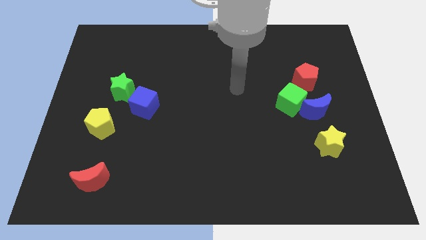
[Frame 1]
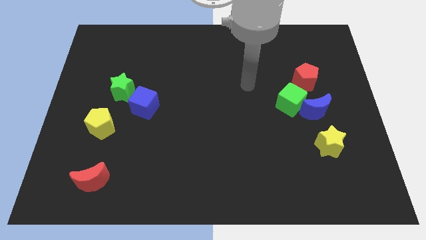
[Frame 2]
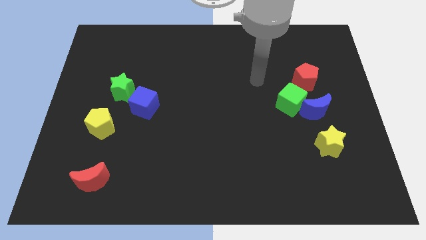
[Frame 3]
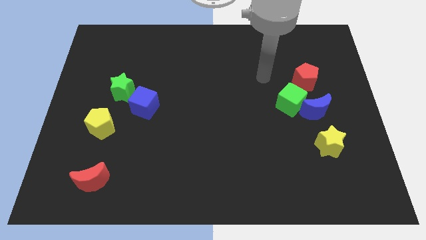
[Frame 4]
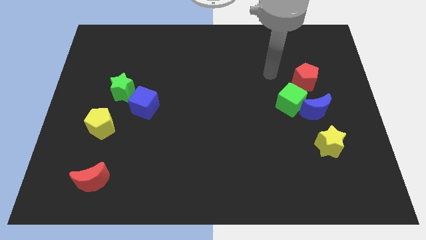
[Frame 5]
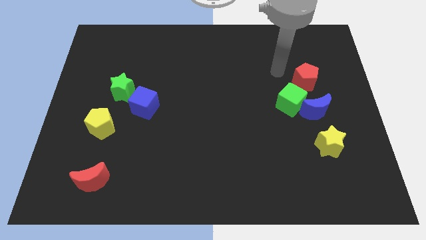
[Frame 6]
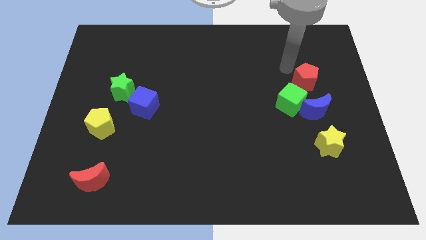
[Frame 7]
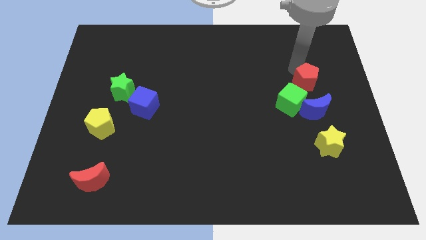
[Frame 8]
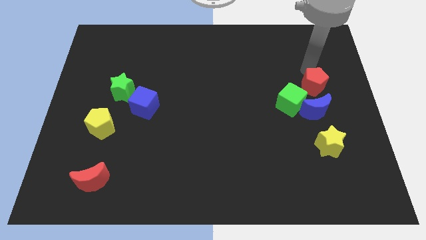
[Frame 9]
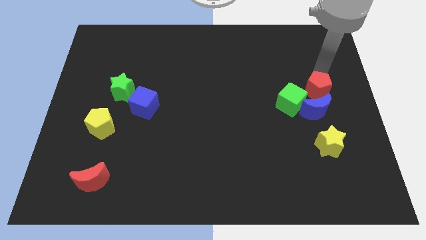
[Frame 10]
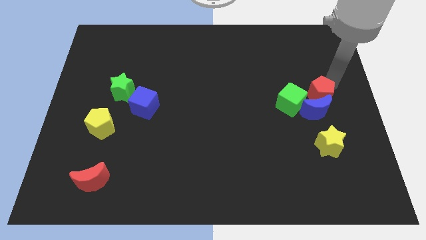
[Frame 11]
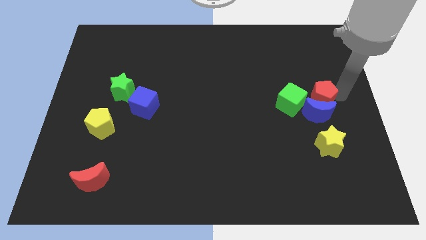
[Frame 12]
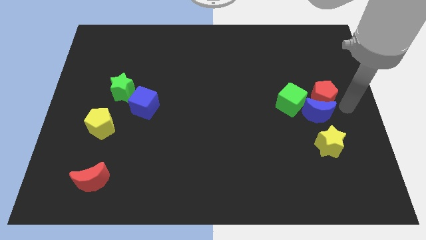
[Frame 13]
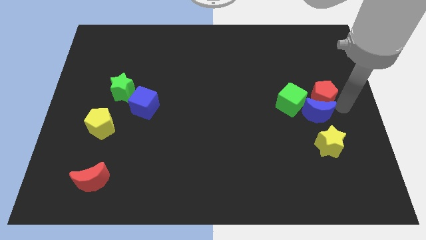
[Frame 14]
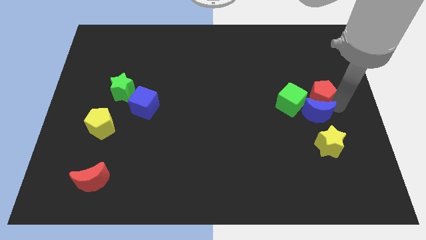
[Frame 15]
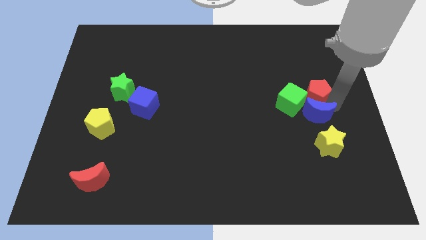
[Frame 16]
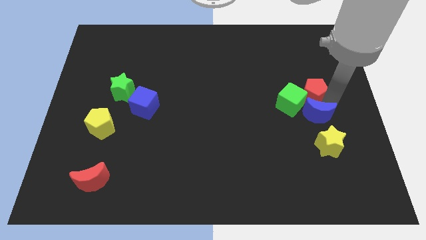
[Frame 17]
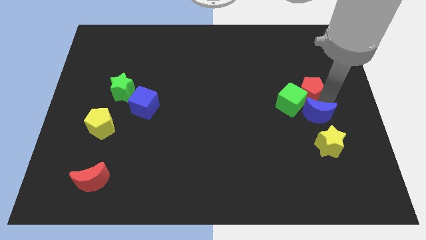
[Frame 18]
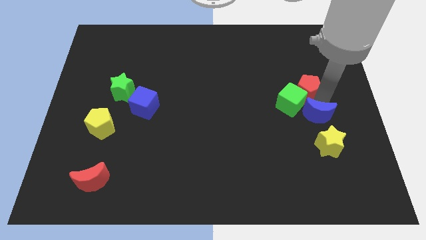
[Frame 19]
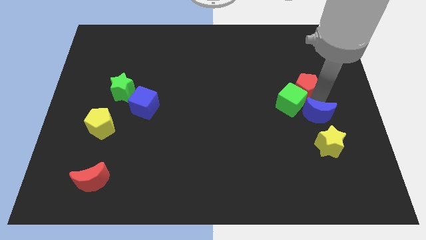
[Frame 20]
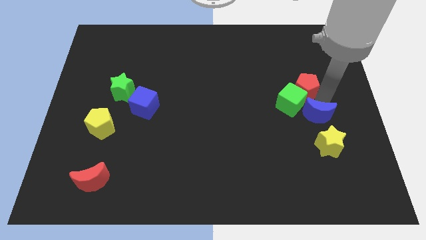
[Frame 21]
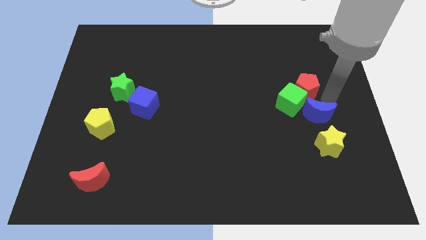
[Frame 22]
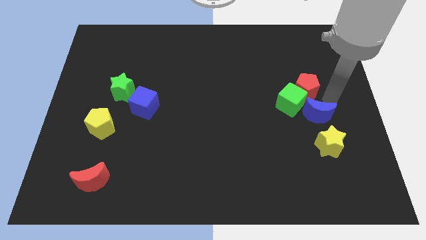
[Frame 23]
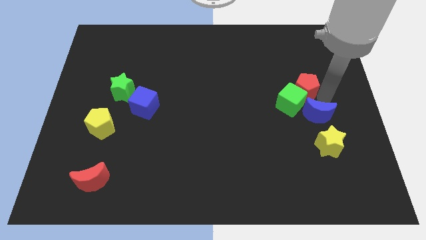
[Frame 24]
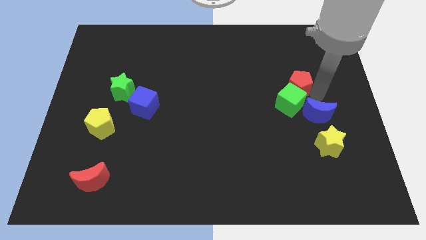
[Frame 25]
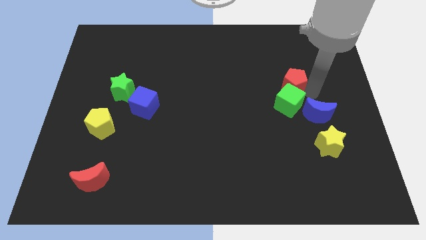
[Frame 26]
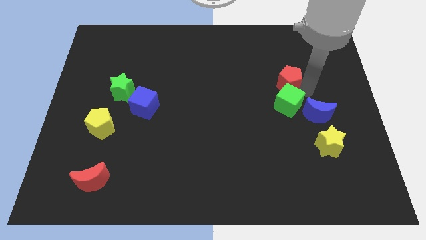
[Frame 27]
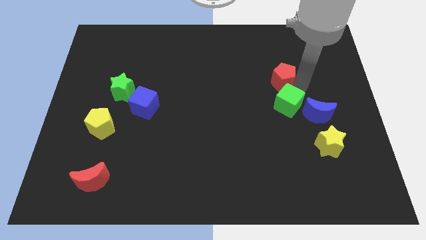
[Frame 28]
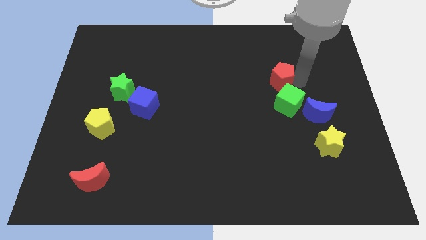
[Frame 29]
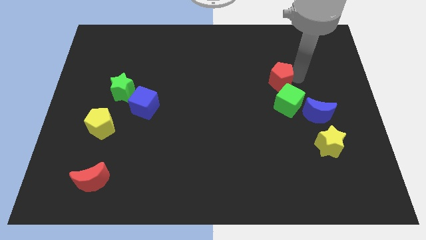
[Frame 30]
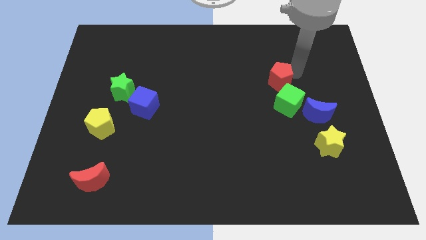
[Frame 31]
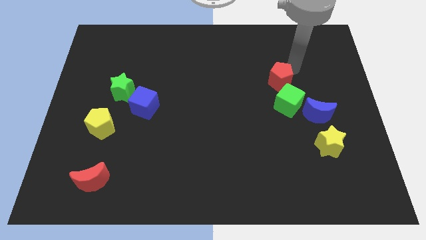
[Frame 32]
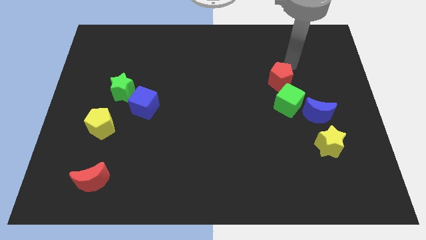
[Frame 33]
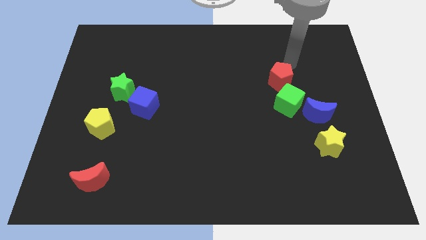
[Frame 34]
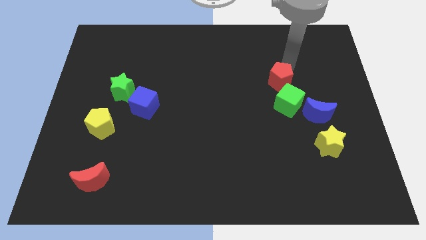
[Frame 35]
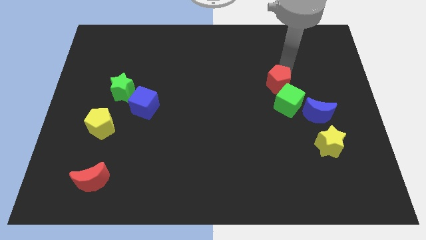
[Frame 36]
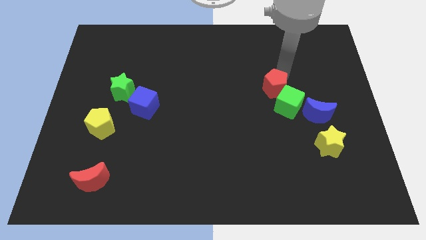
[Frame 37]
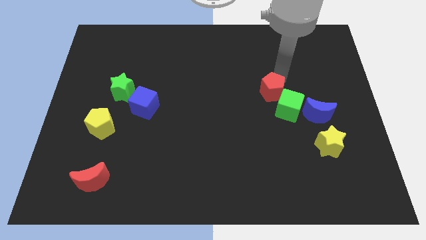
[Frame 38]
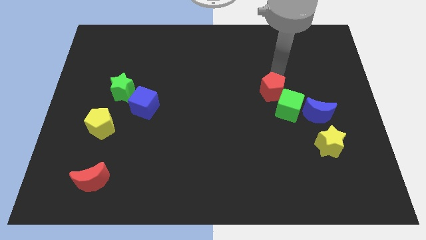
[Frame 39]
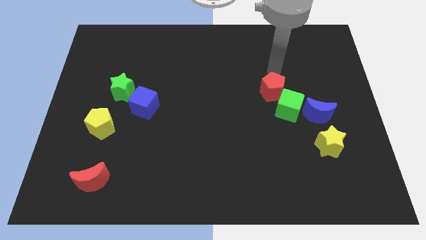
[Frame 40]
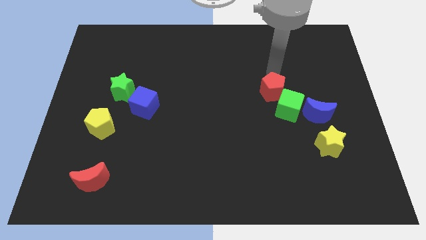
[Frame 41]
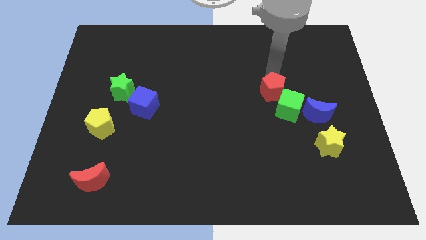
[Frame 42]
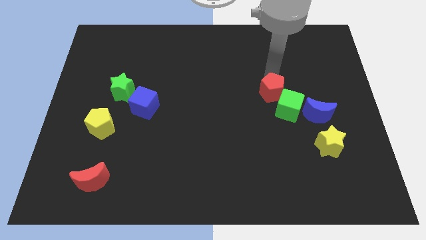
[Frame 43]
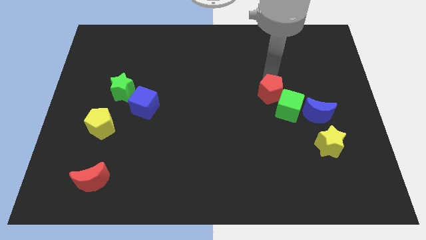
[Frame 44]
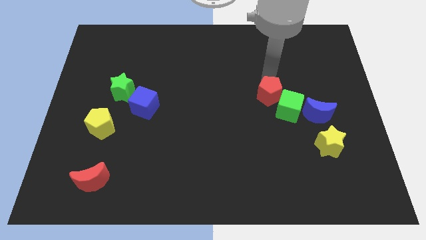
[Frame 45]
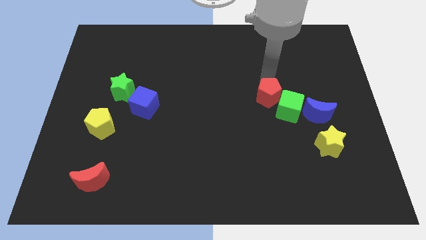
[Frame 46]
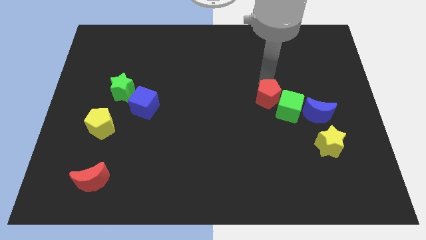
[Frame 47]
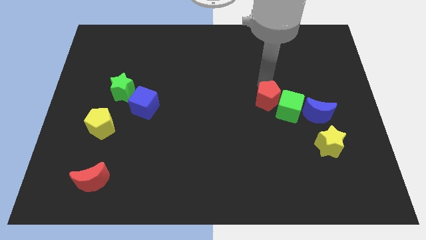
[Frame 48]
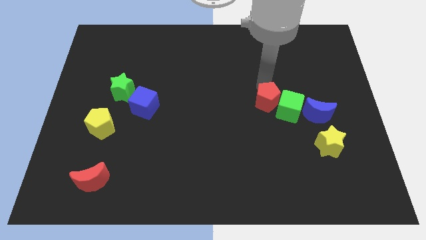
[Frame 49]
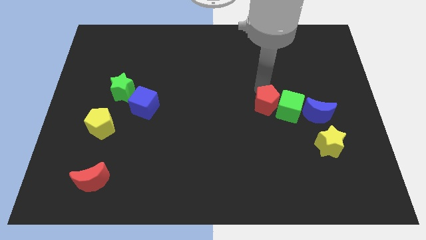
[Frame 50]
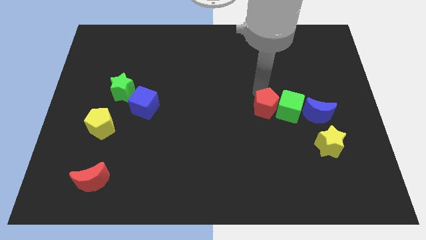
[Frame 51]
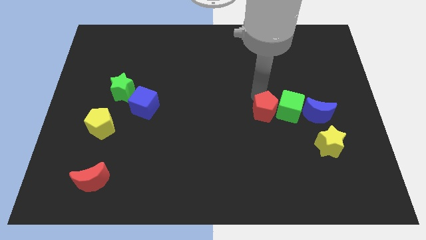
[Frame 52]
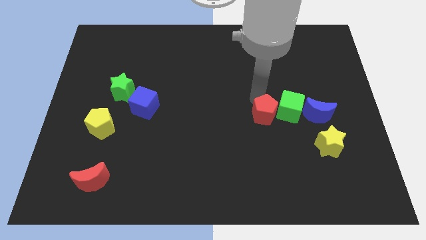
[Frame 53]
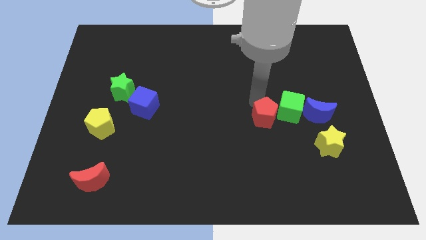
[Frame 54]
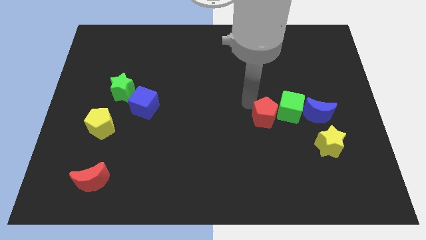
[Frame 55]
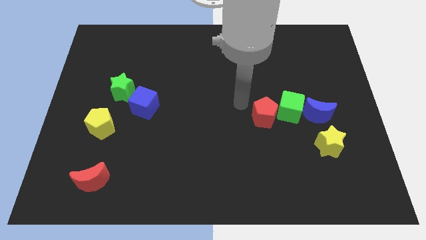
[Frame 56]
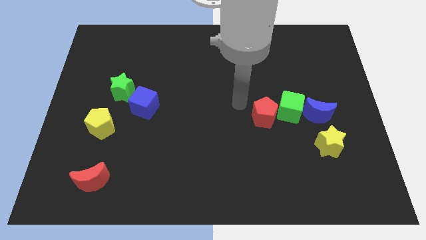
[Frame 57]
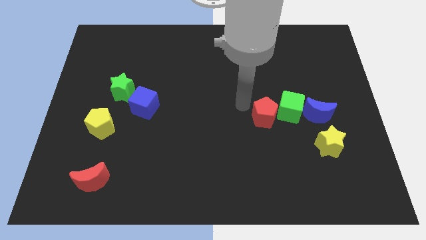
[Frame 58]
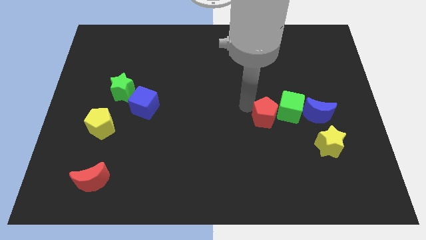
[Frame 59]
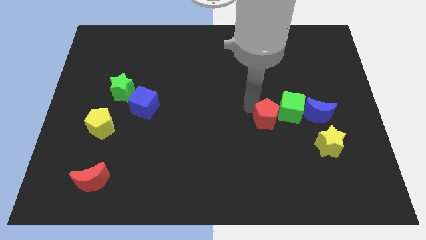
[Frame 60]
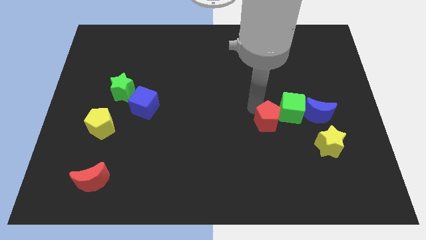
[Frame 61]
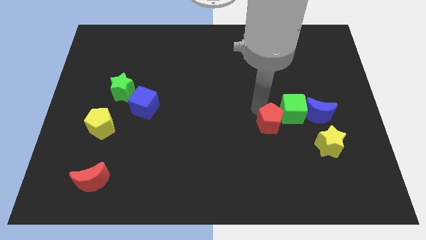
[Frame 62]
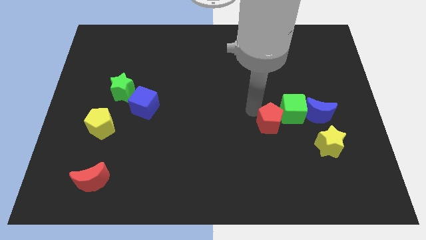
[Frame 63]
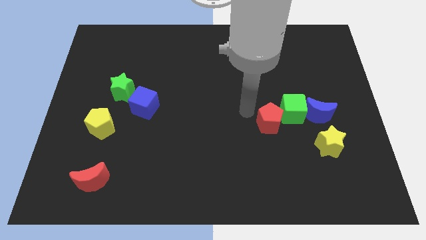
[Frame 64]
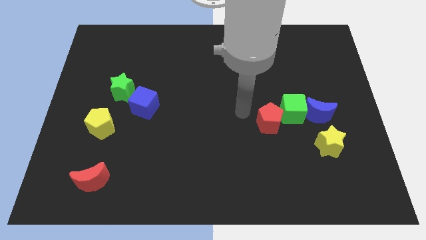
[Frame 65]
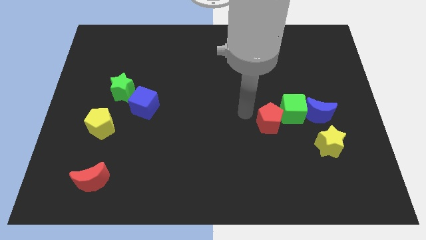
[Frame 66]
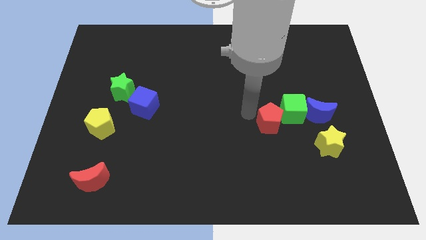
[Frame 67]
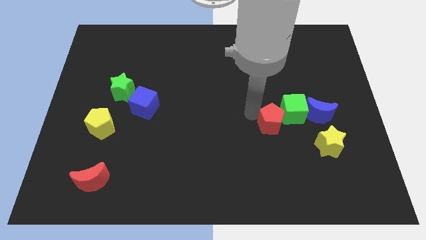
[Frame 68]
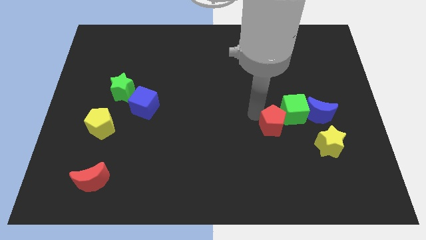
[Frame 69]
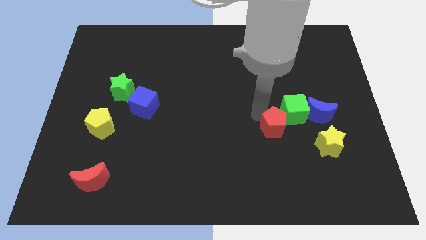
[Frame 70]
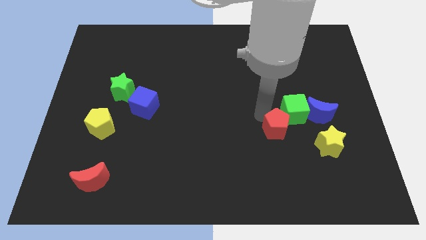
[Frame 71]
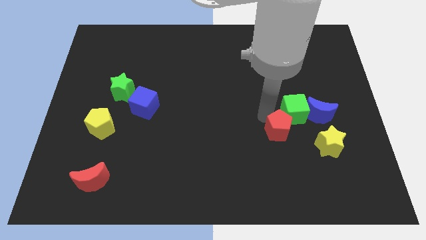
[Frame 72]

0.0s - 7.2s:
move the red pentagon to the bottom left side of the blue moon

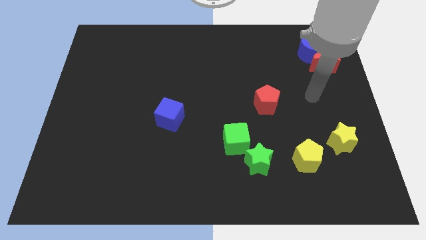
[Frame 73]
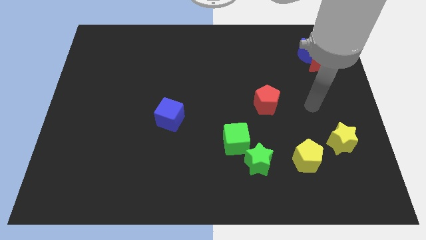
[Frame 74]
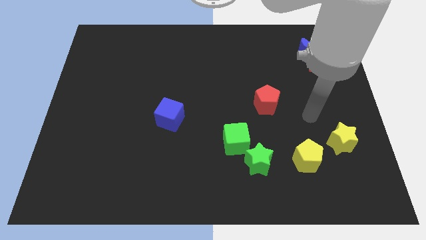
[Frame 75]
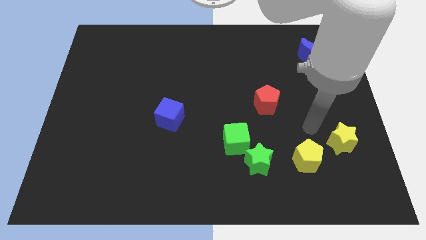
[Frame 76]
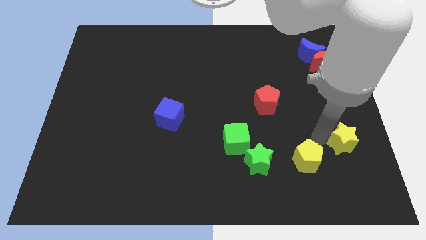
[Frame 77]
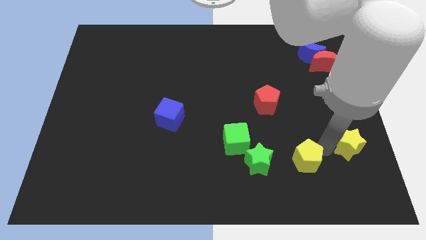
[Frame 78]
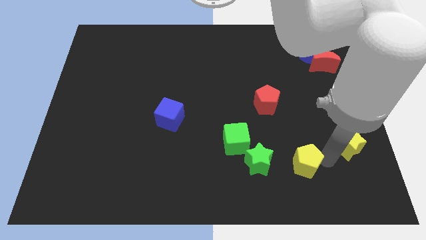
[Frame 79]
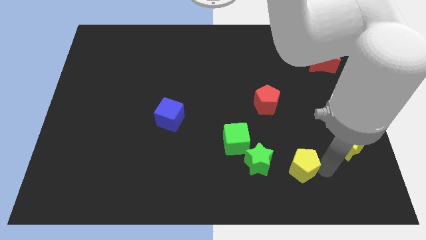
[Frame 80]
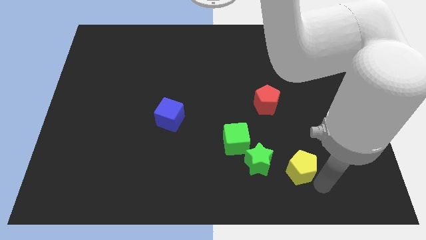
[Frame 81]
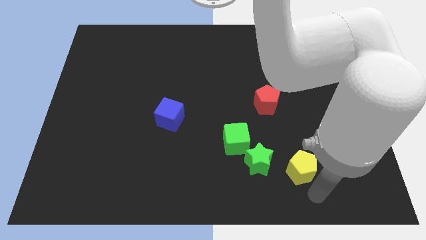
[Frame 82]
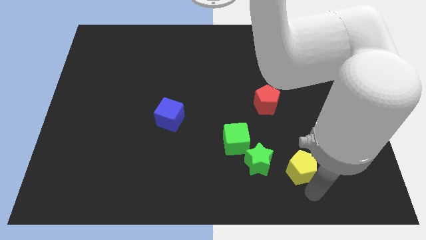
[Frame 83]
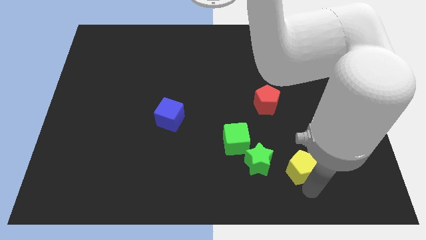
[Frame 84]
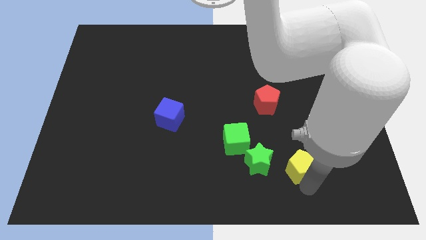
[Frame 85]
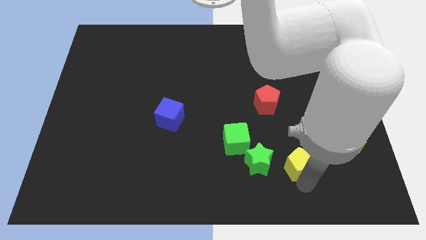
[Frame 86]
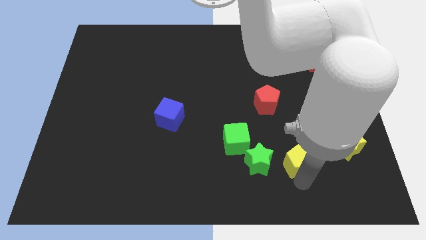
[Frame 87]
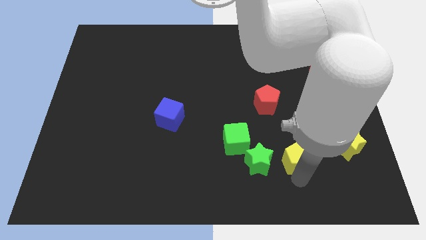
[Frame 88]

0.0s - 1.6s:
push the yellow pentagon right of the green cube
